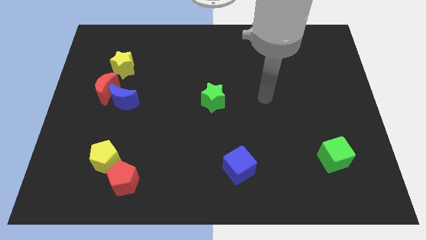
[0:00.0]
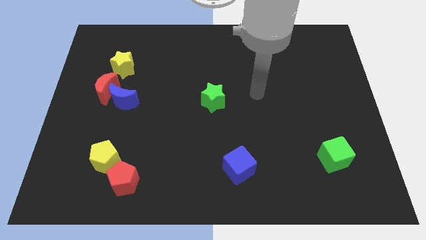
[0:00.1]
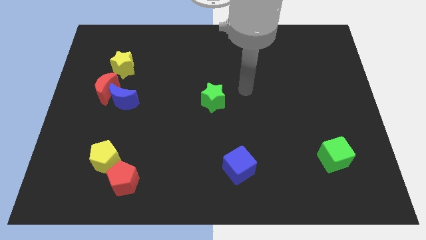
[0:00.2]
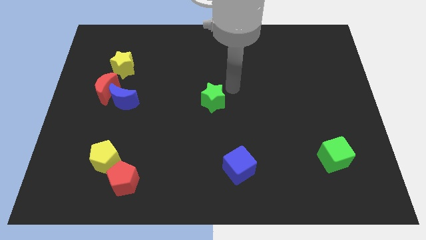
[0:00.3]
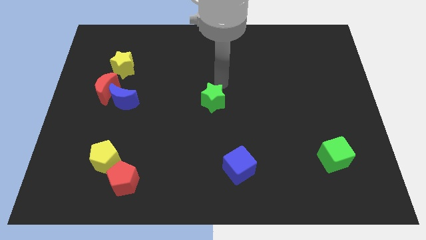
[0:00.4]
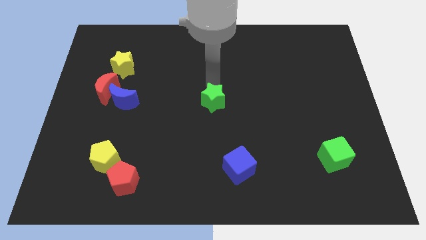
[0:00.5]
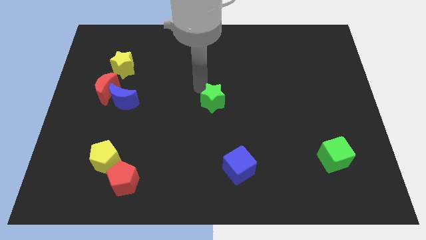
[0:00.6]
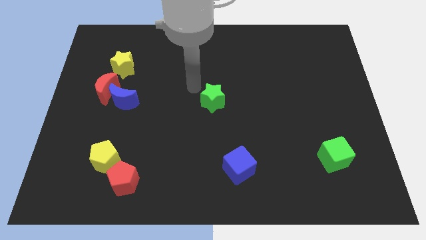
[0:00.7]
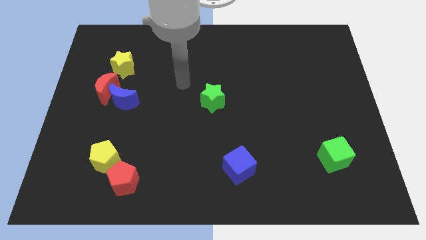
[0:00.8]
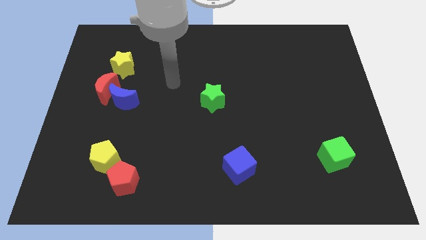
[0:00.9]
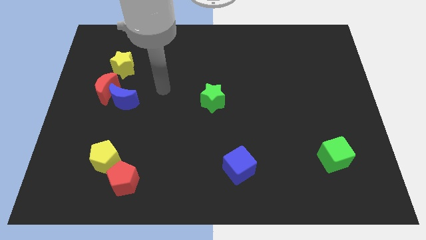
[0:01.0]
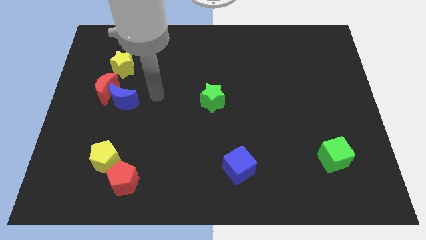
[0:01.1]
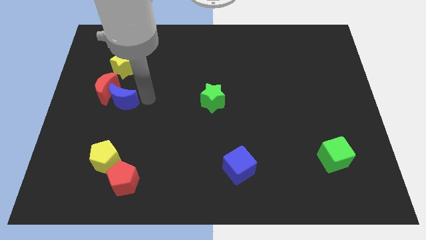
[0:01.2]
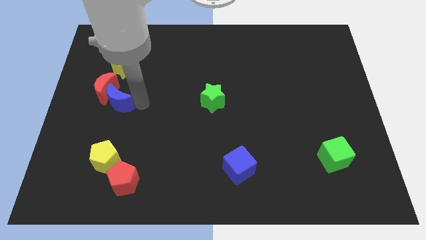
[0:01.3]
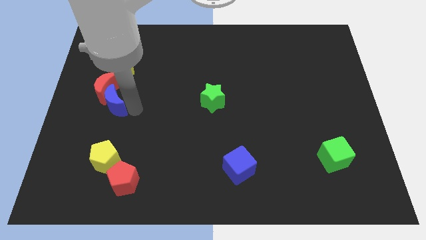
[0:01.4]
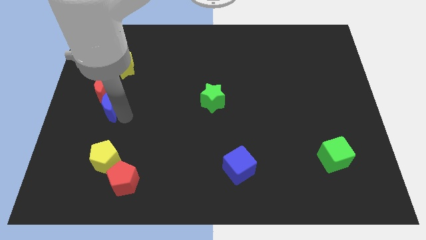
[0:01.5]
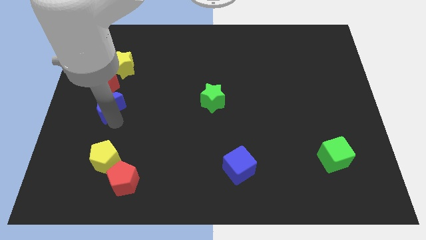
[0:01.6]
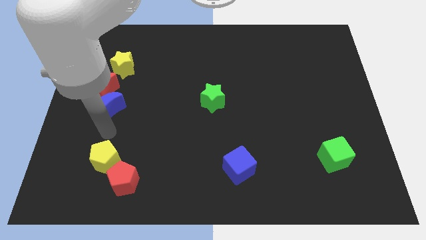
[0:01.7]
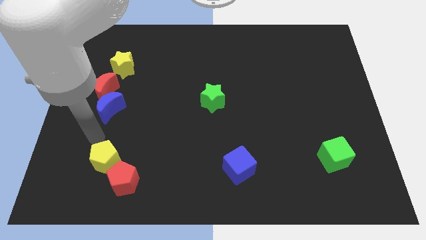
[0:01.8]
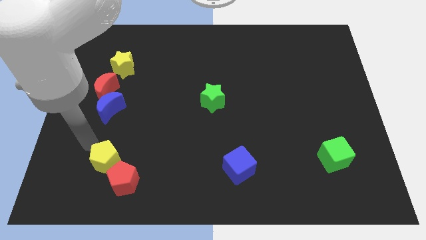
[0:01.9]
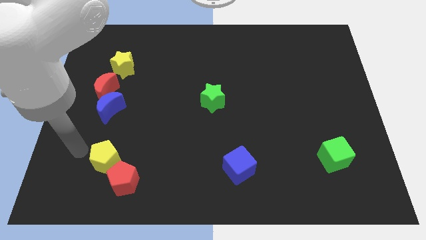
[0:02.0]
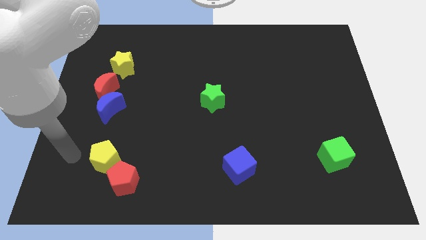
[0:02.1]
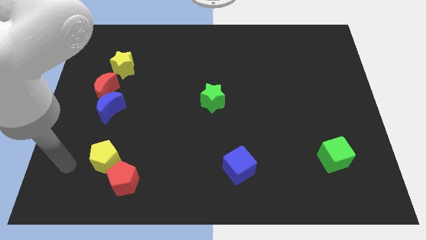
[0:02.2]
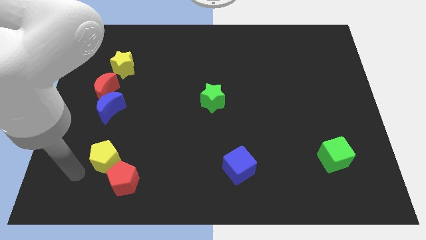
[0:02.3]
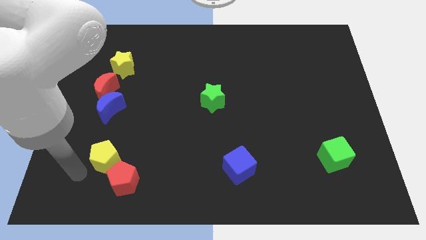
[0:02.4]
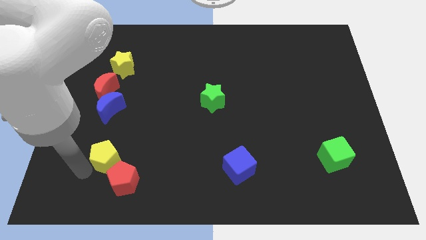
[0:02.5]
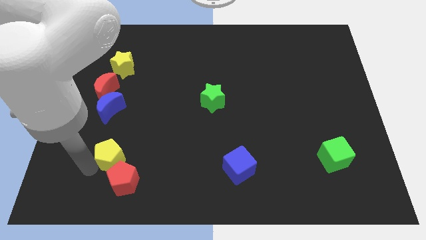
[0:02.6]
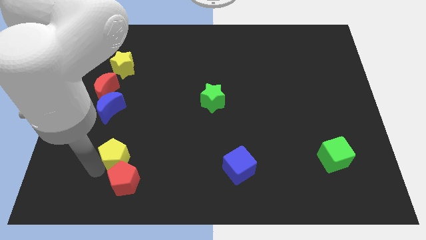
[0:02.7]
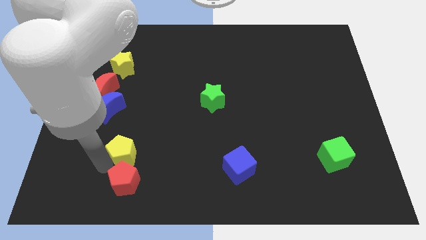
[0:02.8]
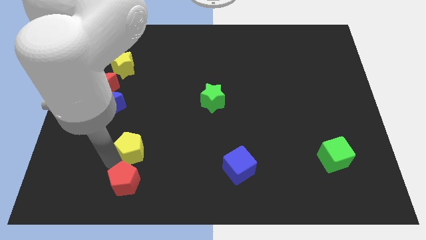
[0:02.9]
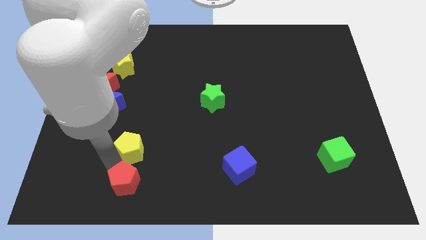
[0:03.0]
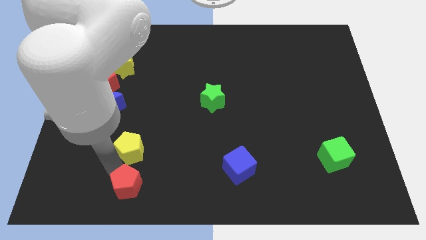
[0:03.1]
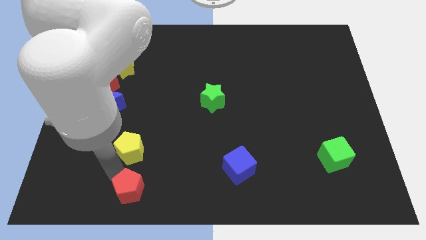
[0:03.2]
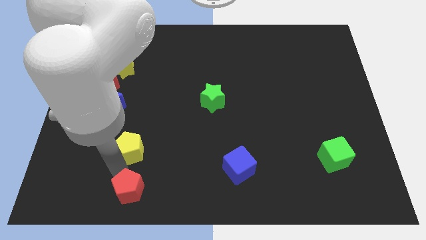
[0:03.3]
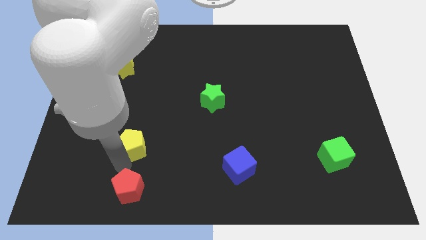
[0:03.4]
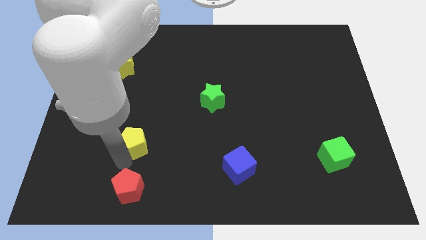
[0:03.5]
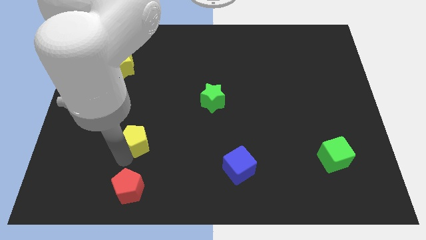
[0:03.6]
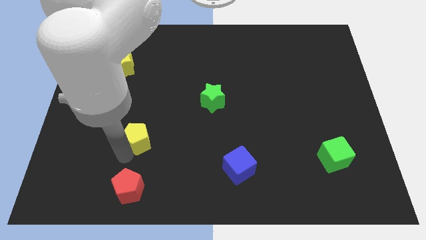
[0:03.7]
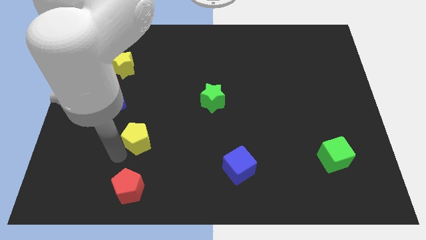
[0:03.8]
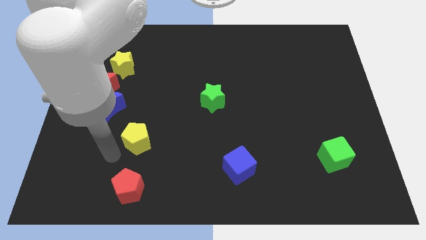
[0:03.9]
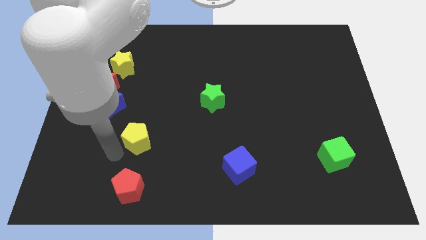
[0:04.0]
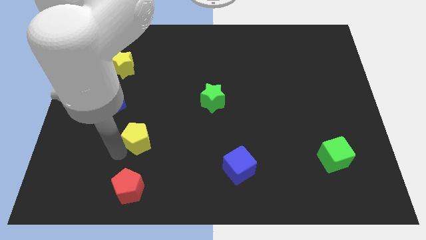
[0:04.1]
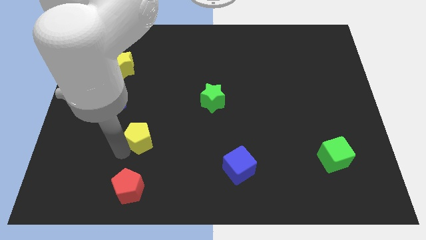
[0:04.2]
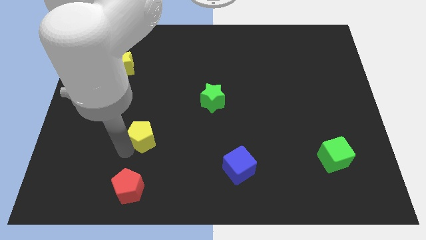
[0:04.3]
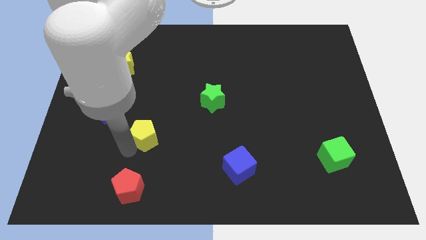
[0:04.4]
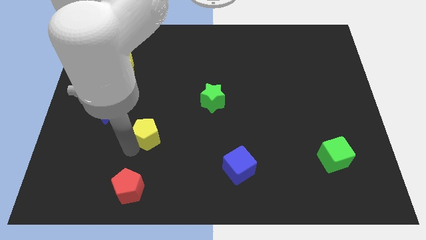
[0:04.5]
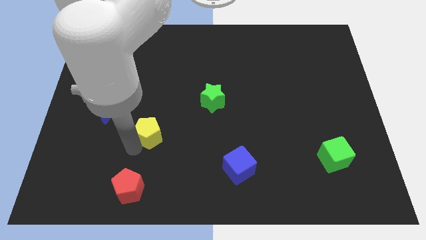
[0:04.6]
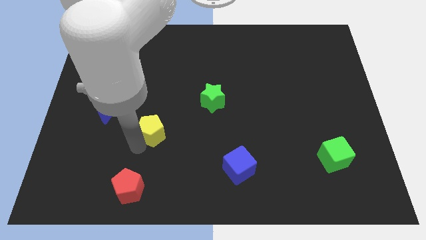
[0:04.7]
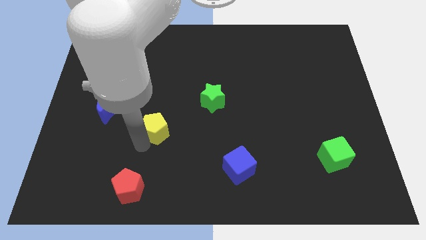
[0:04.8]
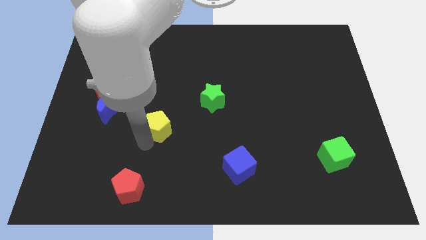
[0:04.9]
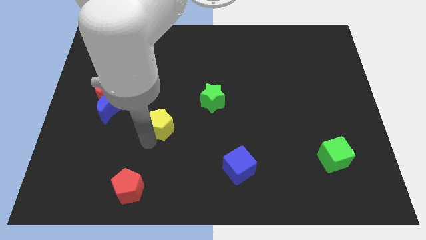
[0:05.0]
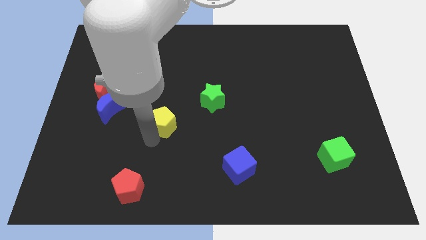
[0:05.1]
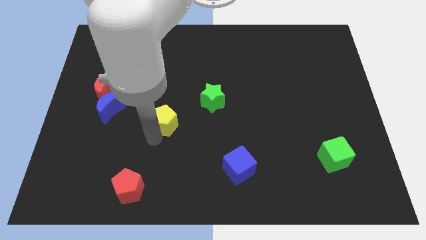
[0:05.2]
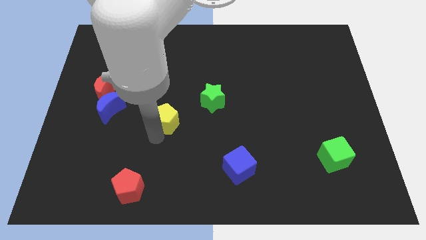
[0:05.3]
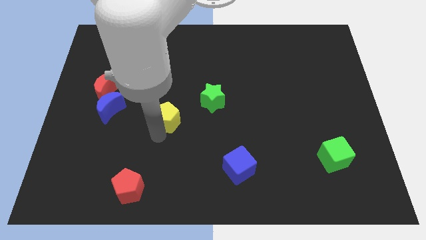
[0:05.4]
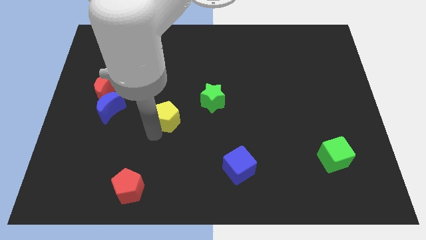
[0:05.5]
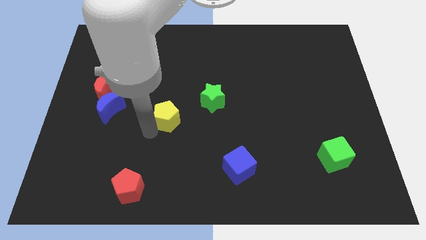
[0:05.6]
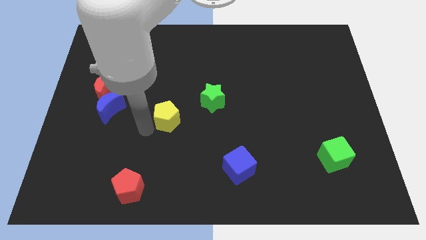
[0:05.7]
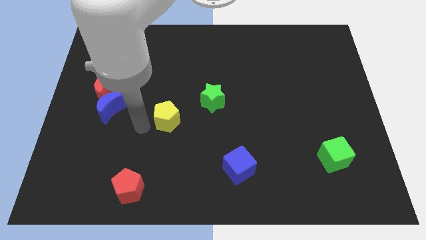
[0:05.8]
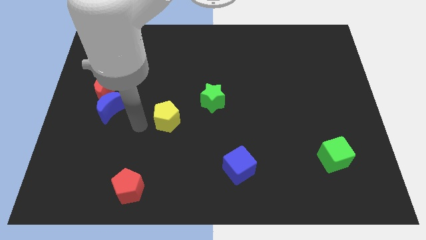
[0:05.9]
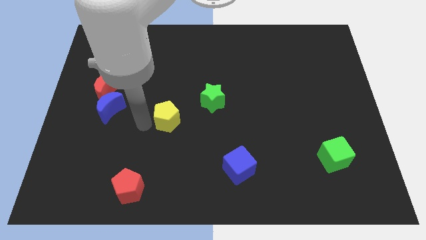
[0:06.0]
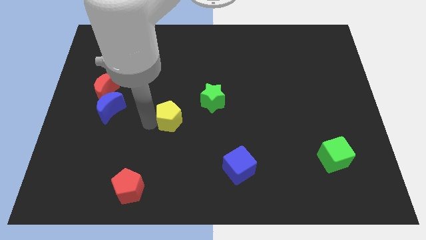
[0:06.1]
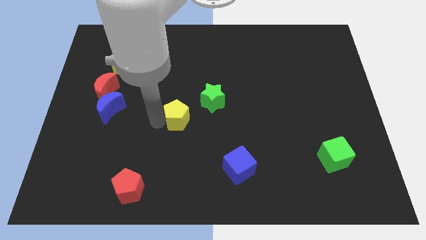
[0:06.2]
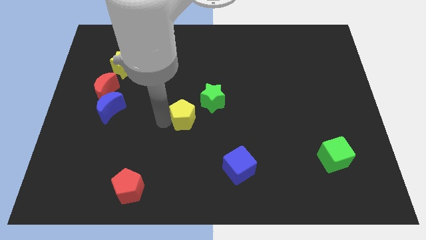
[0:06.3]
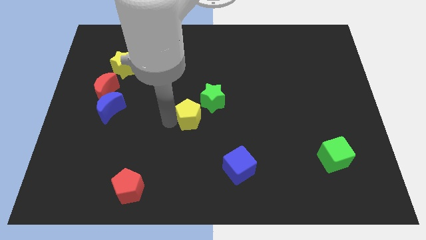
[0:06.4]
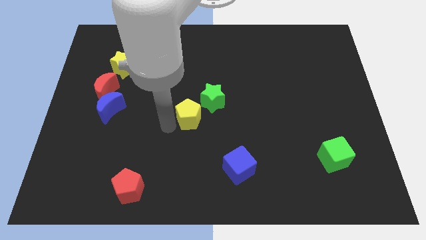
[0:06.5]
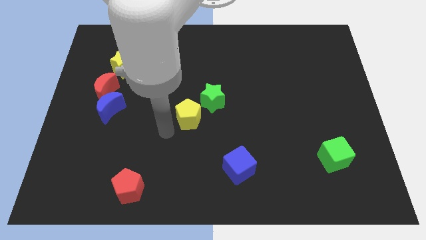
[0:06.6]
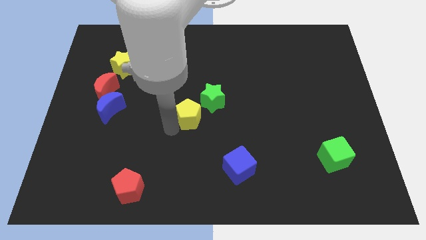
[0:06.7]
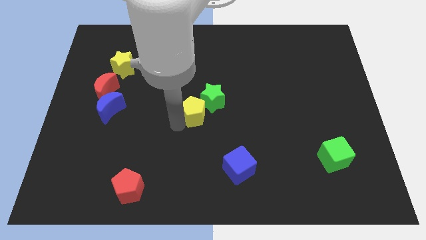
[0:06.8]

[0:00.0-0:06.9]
move the yellow pentagon next to the green star
